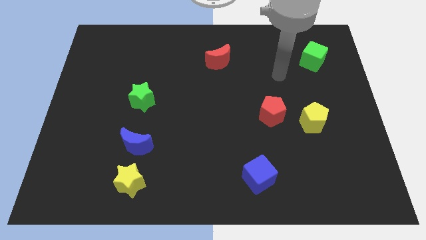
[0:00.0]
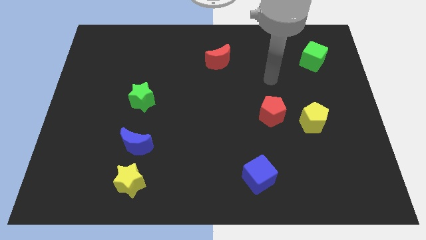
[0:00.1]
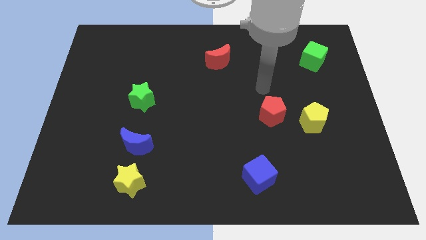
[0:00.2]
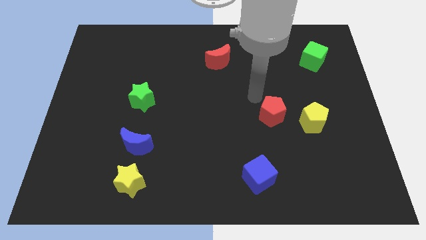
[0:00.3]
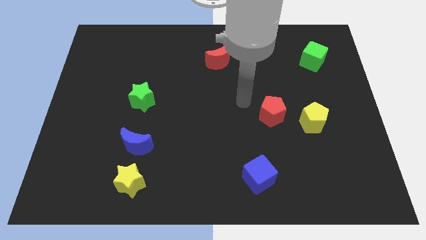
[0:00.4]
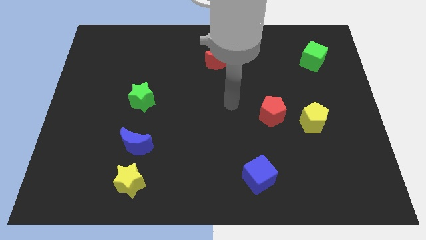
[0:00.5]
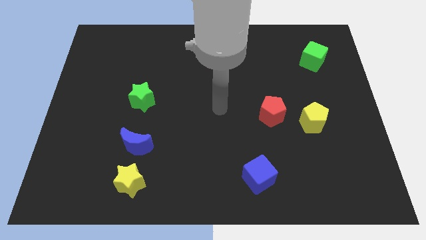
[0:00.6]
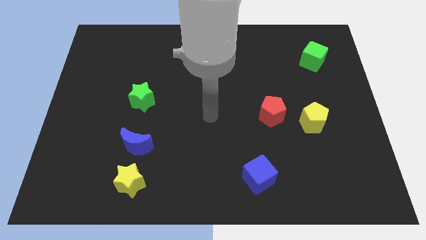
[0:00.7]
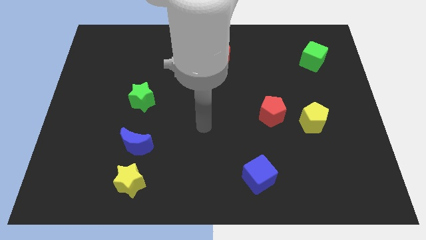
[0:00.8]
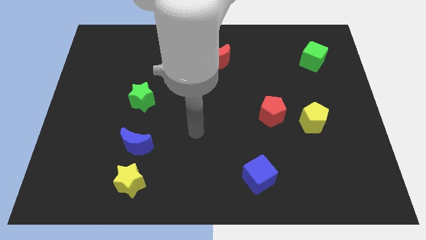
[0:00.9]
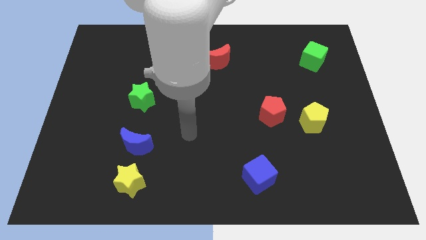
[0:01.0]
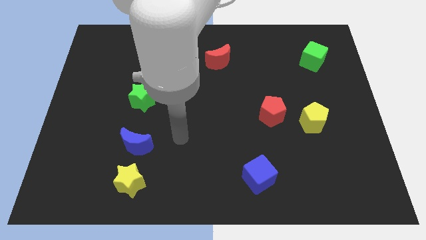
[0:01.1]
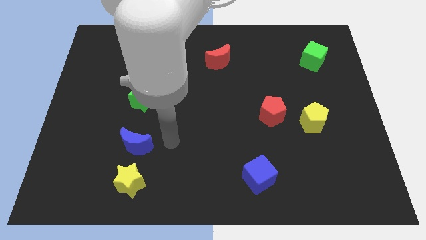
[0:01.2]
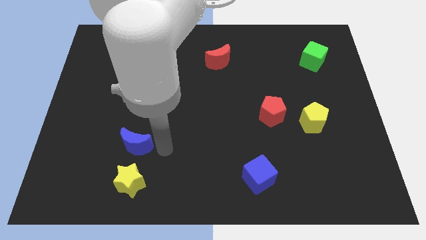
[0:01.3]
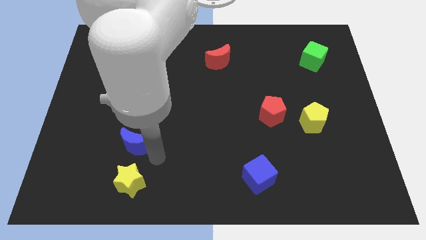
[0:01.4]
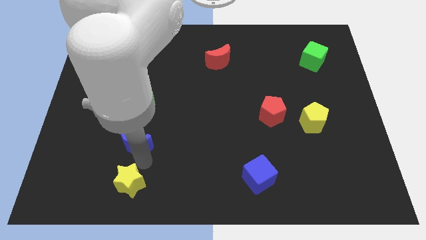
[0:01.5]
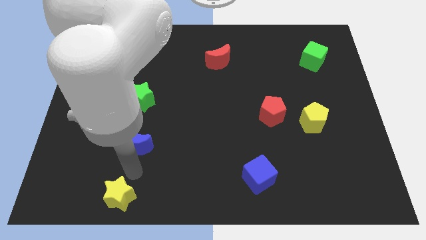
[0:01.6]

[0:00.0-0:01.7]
move the blue moon away from the yellow star

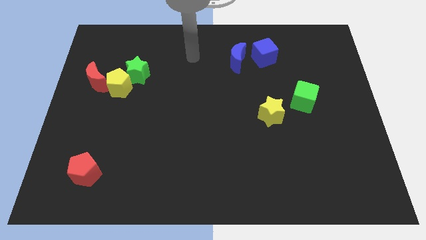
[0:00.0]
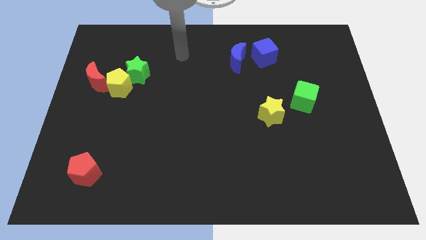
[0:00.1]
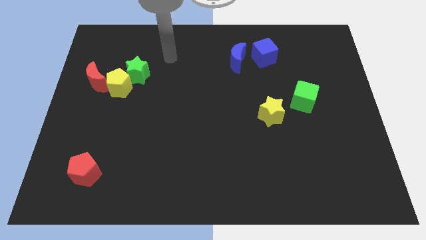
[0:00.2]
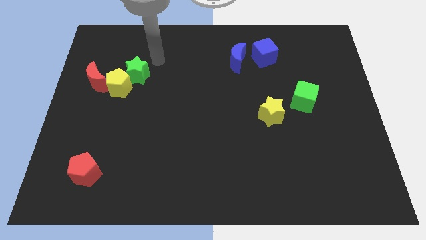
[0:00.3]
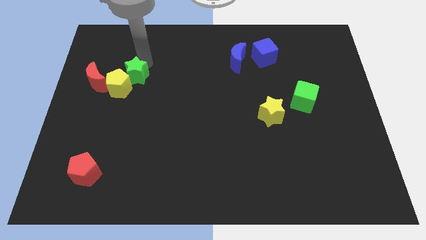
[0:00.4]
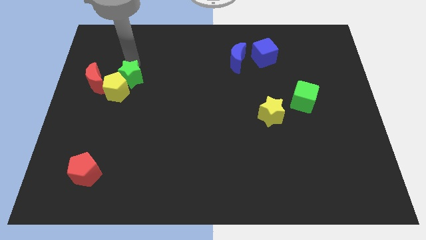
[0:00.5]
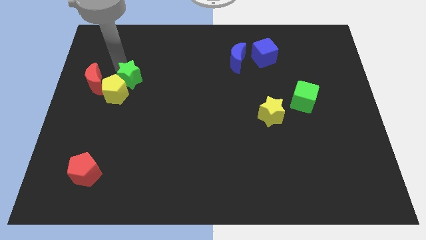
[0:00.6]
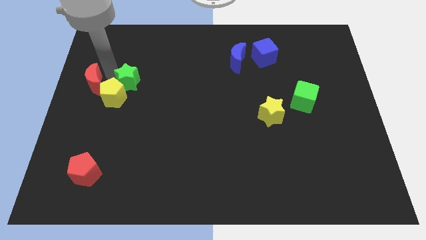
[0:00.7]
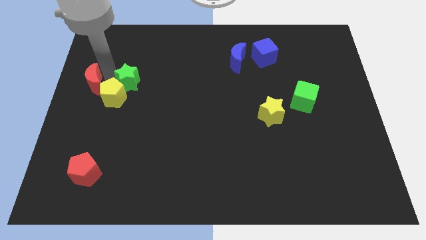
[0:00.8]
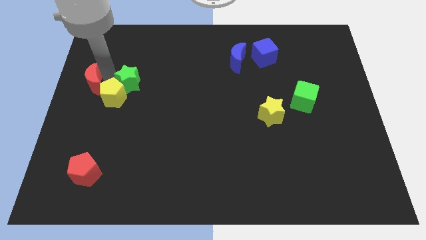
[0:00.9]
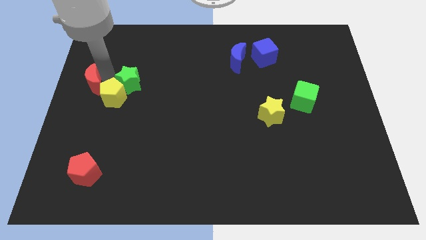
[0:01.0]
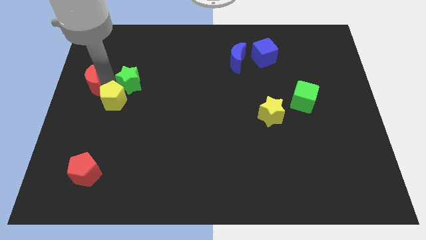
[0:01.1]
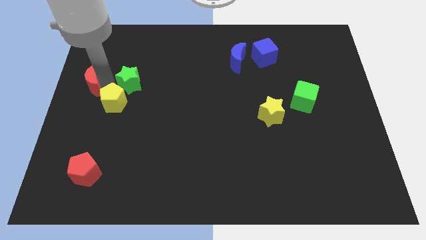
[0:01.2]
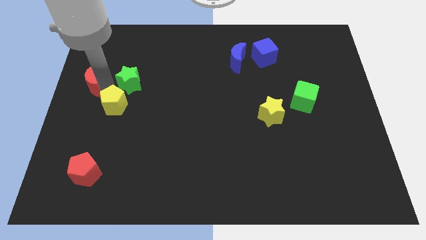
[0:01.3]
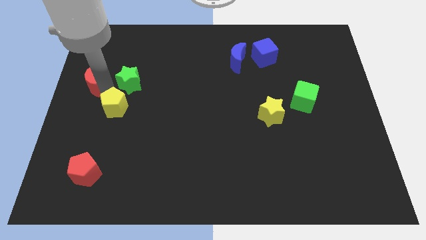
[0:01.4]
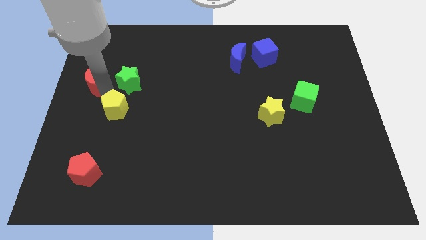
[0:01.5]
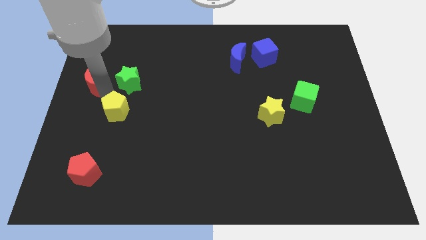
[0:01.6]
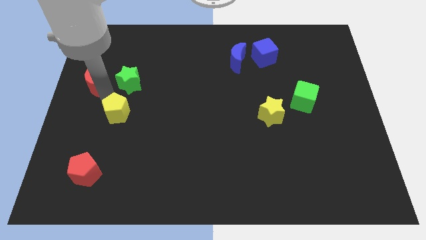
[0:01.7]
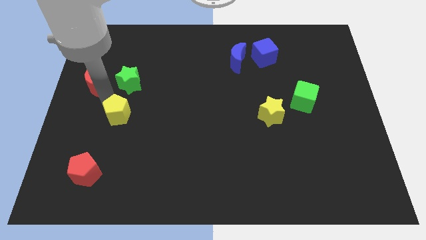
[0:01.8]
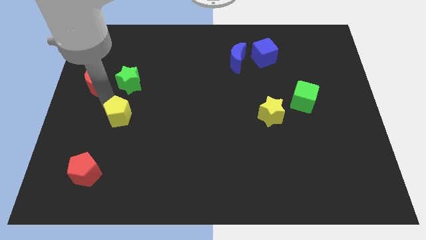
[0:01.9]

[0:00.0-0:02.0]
separate the yellow pentagon from the green star and red moon

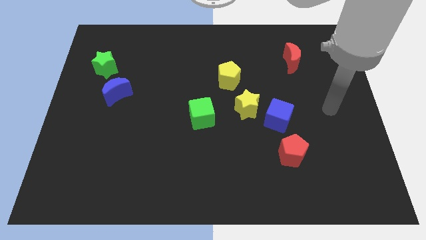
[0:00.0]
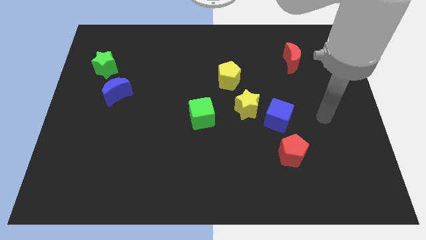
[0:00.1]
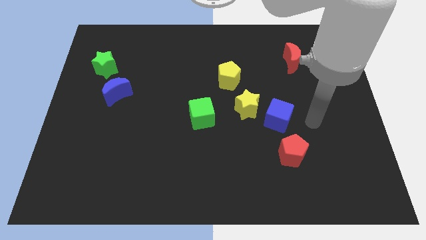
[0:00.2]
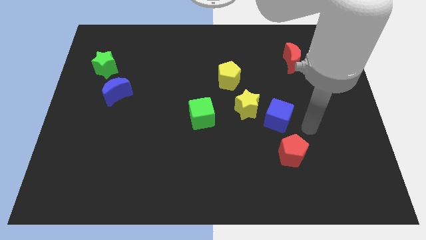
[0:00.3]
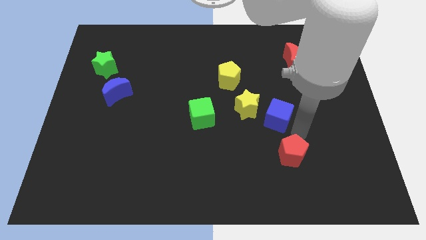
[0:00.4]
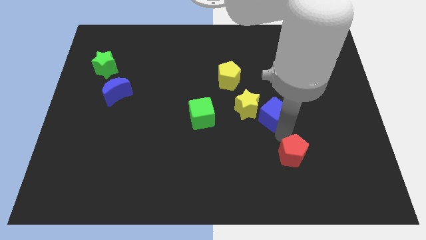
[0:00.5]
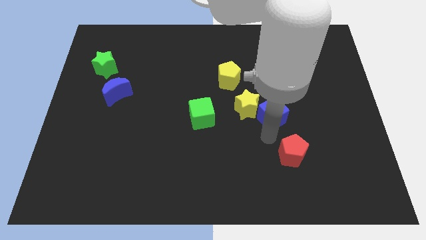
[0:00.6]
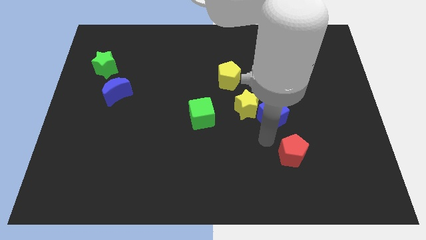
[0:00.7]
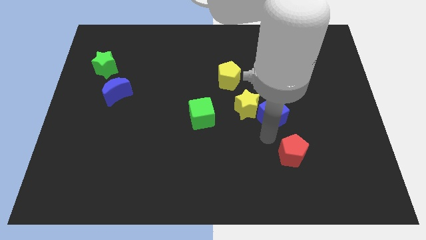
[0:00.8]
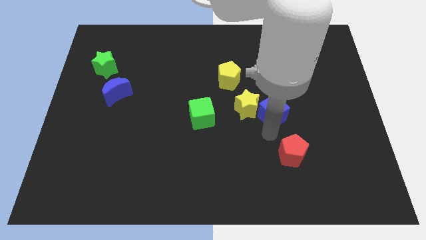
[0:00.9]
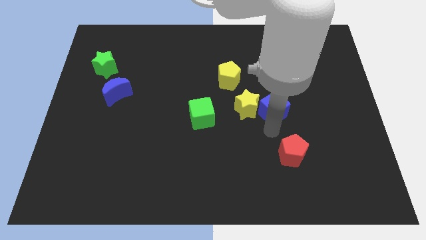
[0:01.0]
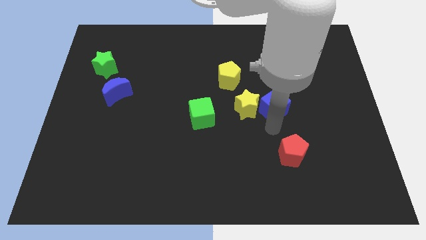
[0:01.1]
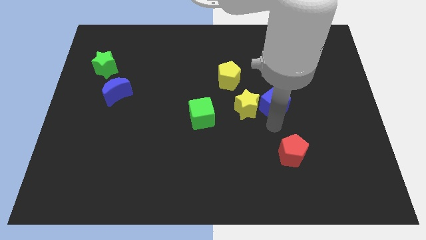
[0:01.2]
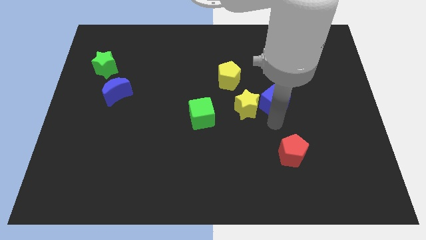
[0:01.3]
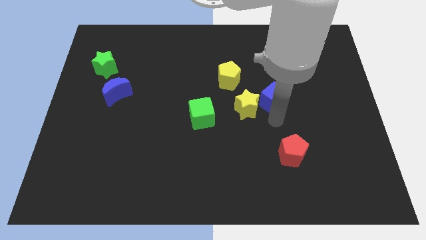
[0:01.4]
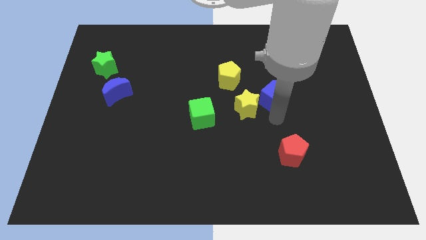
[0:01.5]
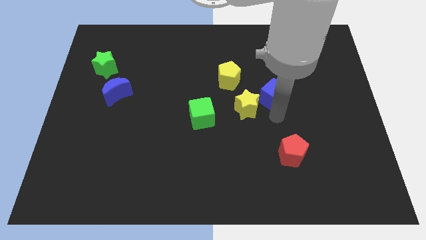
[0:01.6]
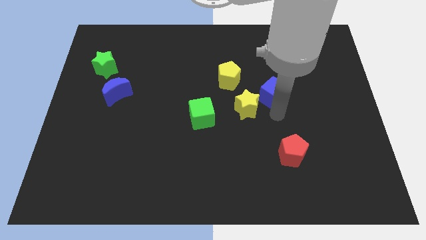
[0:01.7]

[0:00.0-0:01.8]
move the blue cube away from the yellow star and red pentagon

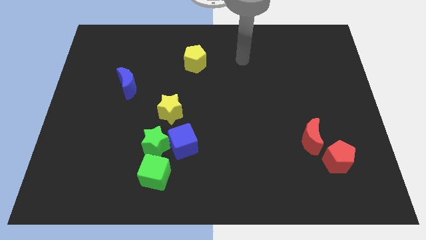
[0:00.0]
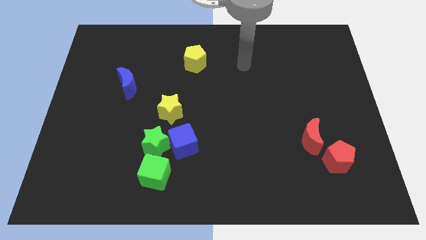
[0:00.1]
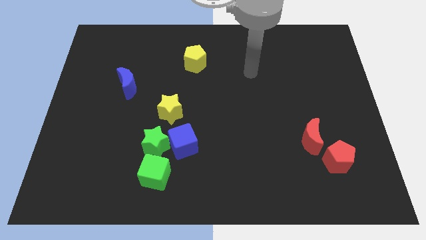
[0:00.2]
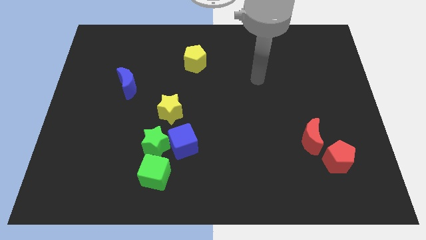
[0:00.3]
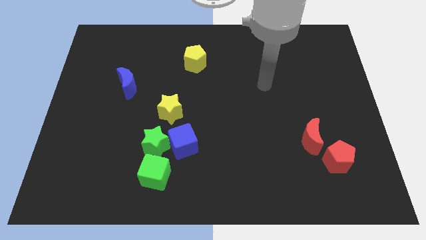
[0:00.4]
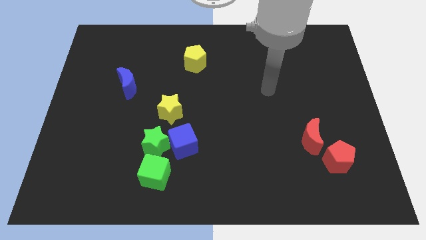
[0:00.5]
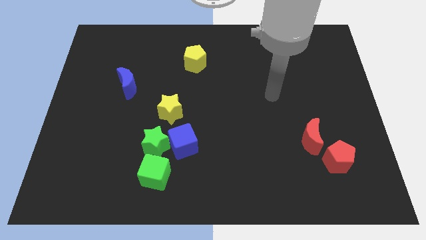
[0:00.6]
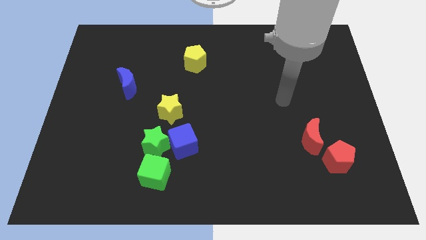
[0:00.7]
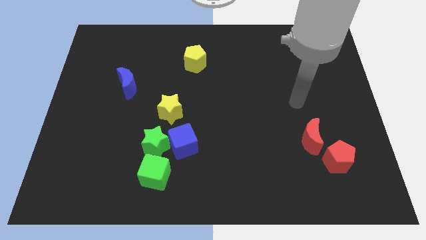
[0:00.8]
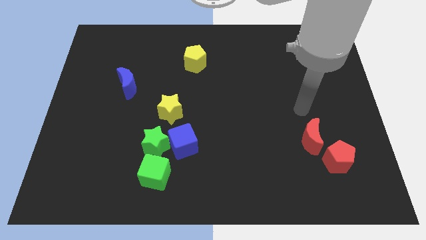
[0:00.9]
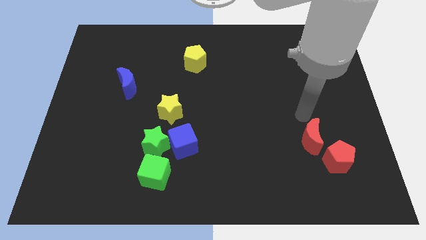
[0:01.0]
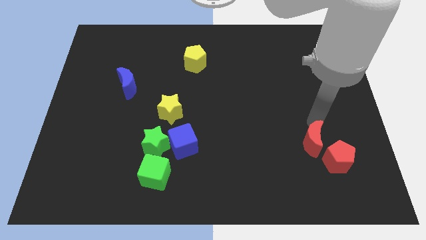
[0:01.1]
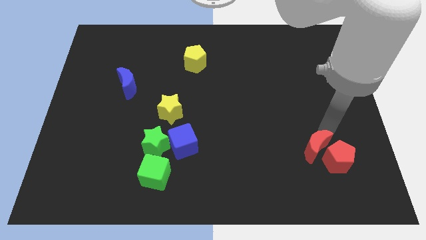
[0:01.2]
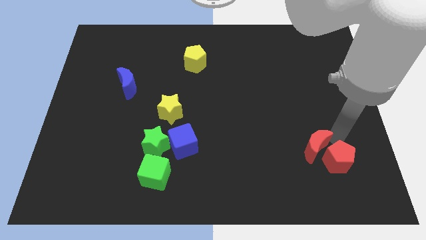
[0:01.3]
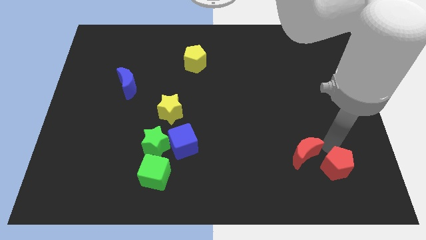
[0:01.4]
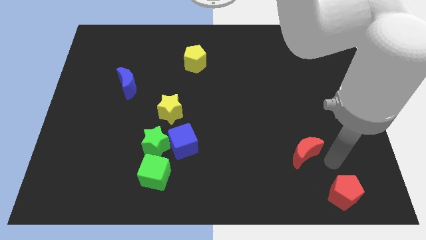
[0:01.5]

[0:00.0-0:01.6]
separate the red moon from the red pentagon

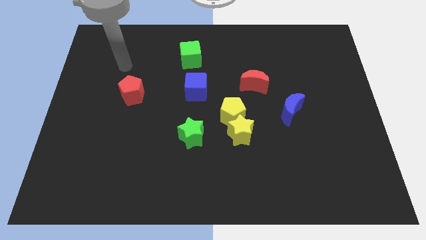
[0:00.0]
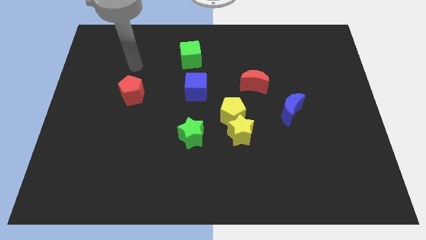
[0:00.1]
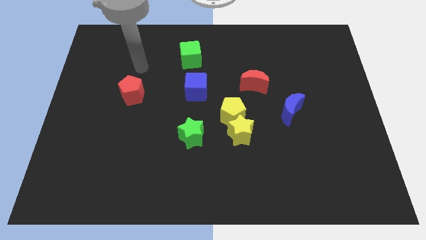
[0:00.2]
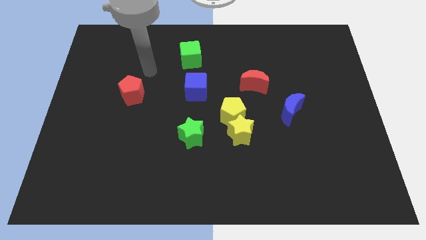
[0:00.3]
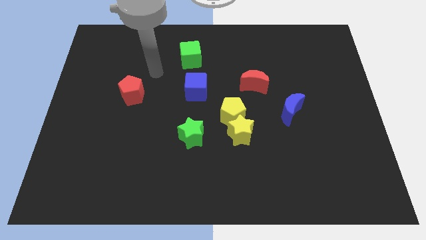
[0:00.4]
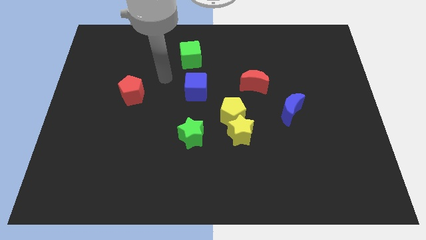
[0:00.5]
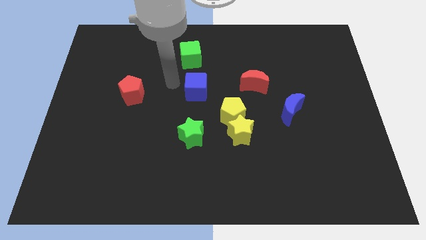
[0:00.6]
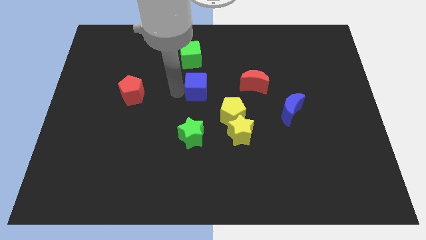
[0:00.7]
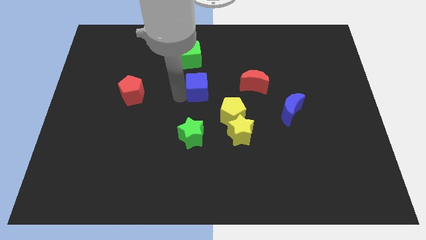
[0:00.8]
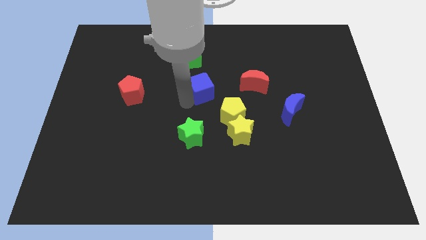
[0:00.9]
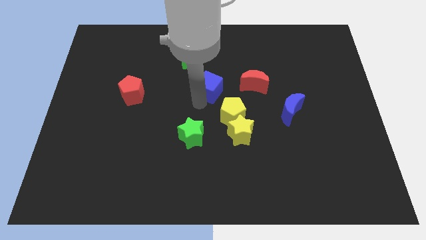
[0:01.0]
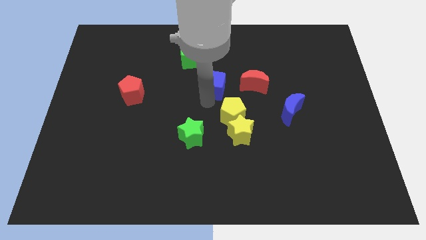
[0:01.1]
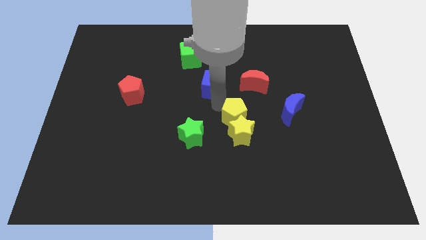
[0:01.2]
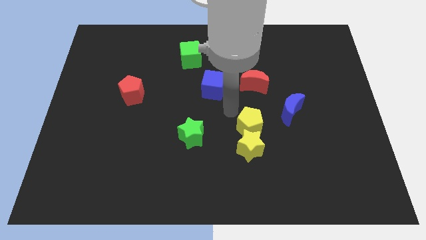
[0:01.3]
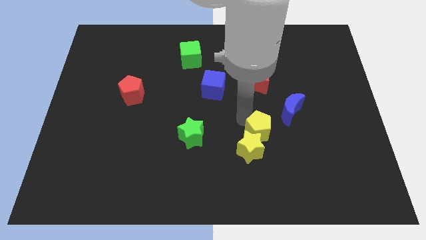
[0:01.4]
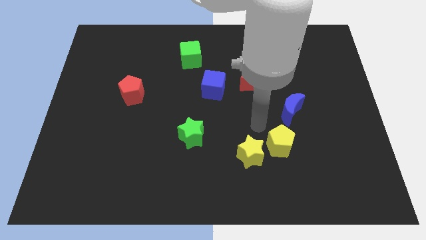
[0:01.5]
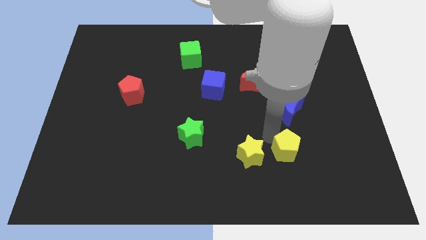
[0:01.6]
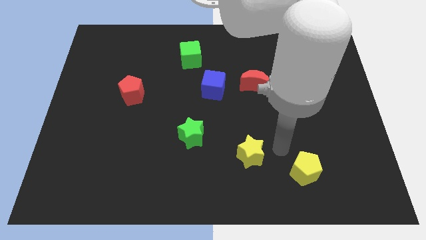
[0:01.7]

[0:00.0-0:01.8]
separate the yellow star from the yellow pentagon

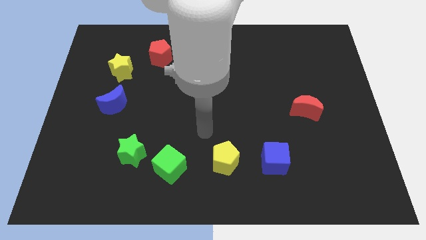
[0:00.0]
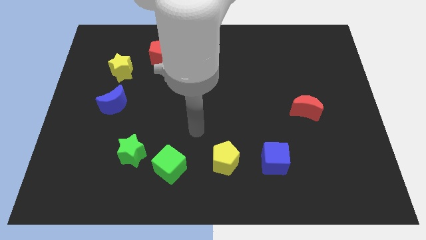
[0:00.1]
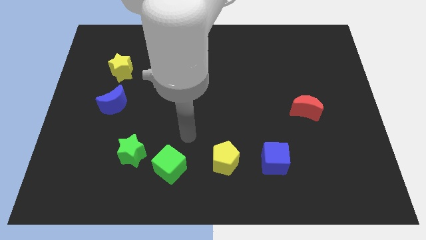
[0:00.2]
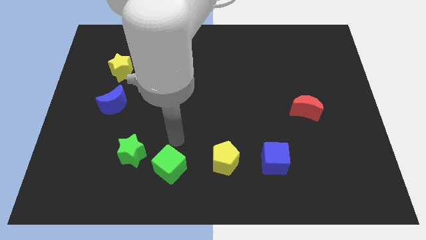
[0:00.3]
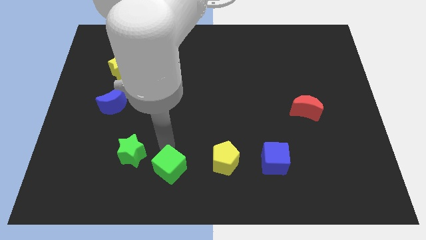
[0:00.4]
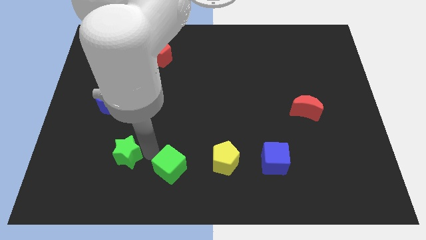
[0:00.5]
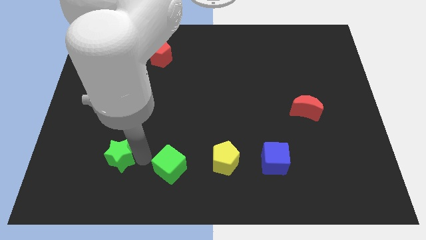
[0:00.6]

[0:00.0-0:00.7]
pull the green cube apart from the green star
